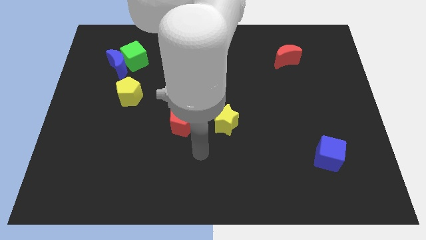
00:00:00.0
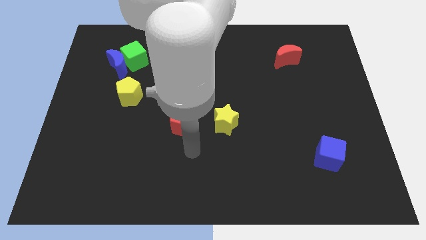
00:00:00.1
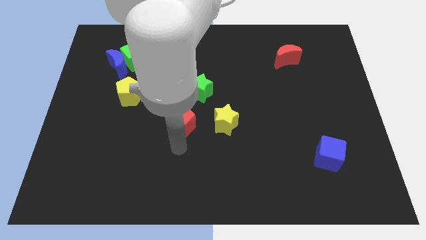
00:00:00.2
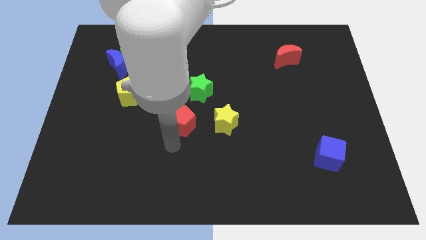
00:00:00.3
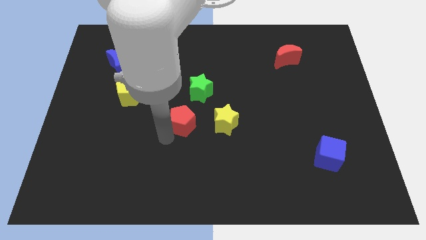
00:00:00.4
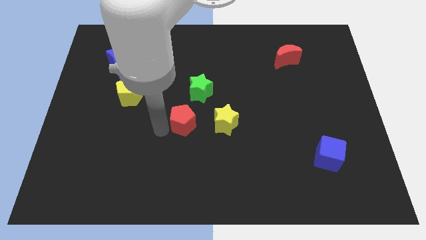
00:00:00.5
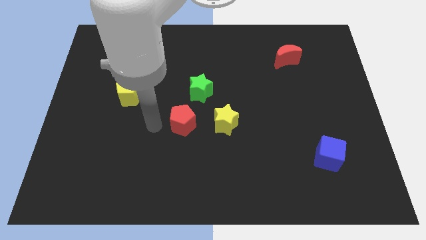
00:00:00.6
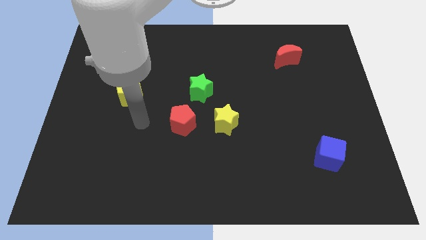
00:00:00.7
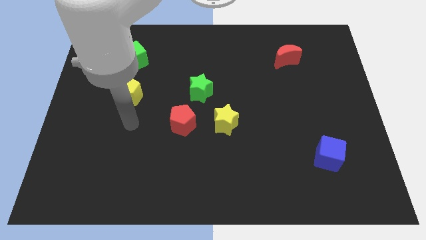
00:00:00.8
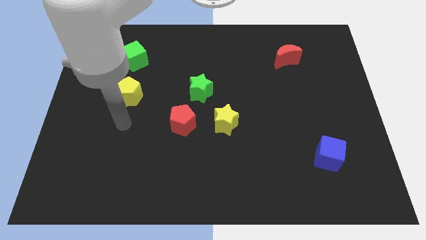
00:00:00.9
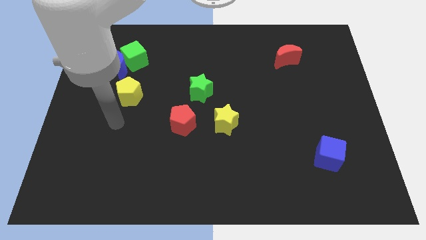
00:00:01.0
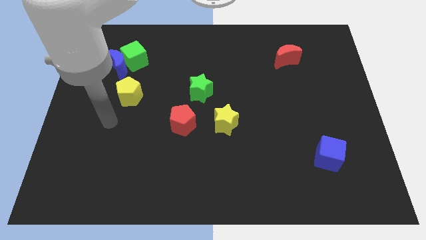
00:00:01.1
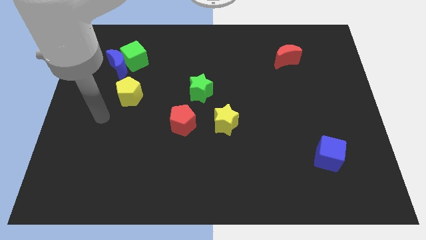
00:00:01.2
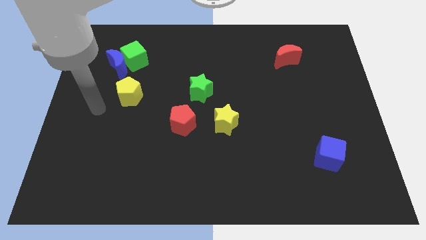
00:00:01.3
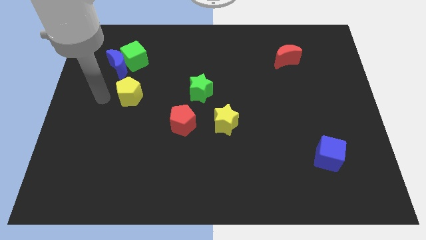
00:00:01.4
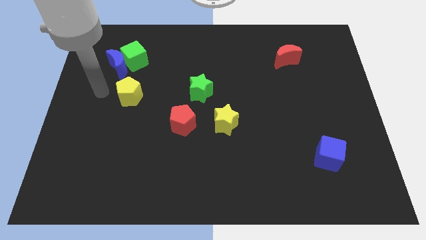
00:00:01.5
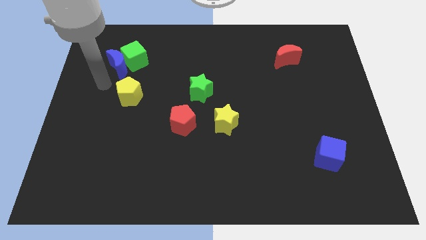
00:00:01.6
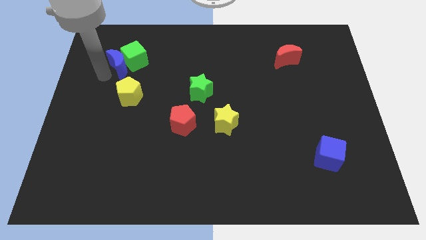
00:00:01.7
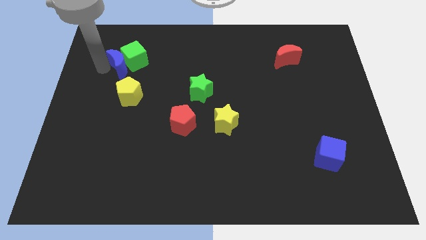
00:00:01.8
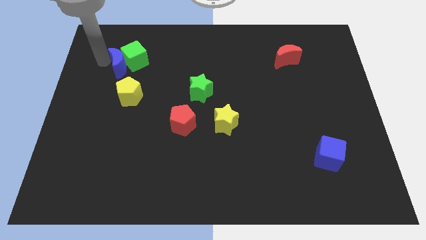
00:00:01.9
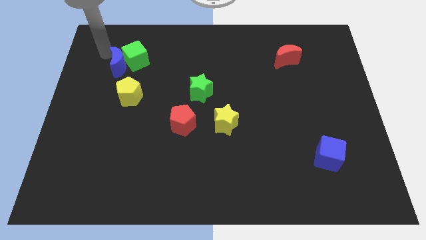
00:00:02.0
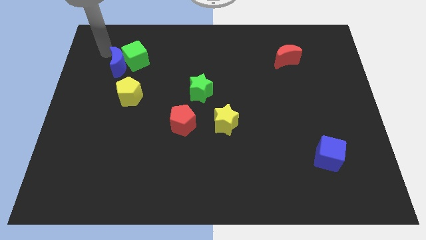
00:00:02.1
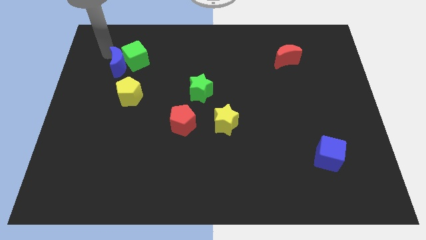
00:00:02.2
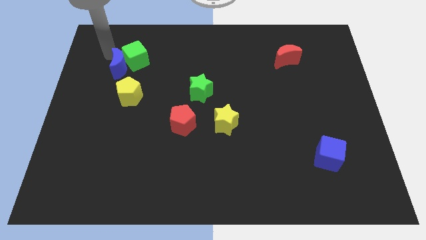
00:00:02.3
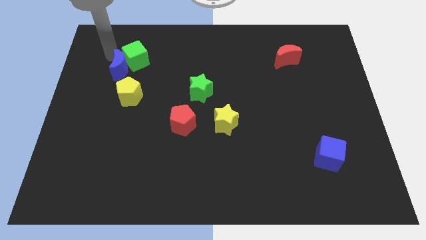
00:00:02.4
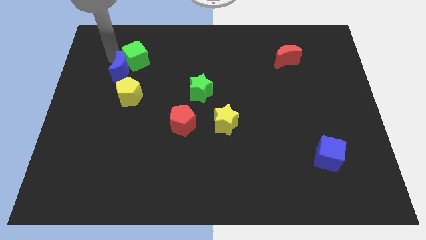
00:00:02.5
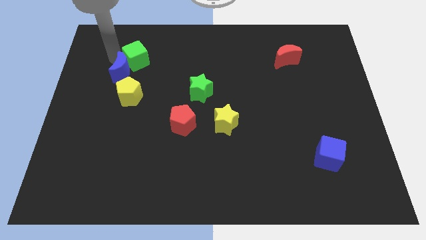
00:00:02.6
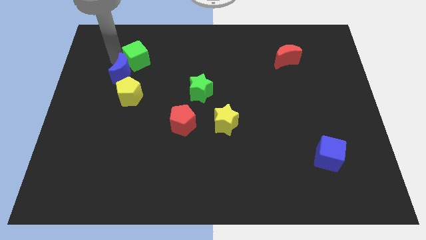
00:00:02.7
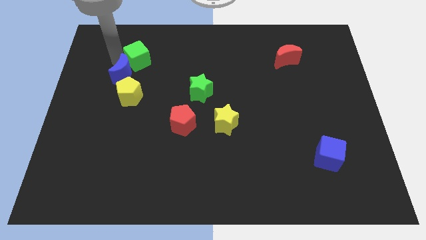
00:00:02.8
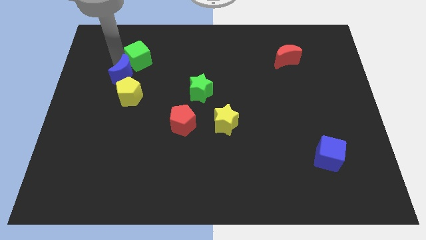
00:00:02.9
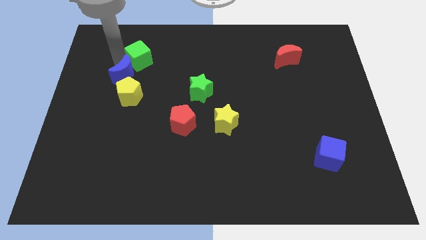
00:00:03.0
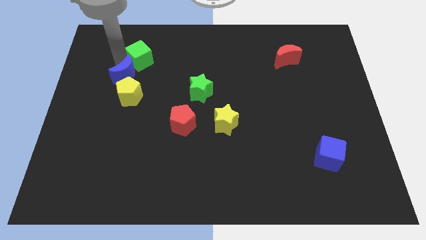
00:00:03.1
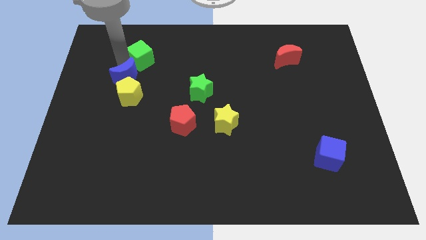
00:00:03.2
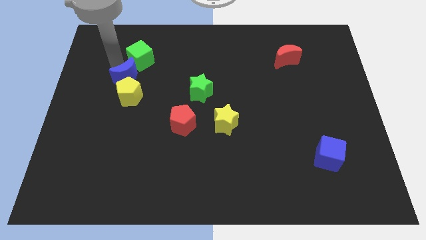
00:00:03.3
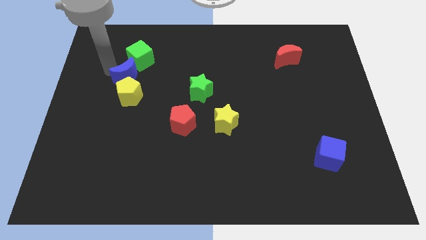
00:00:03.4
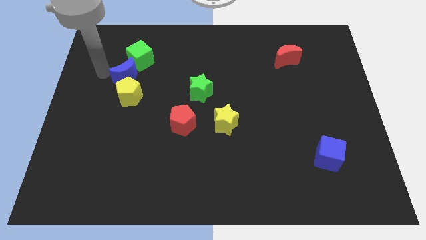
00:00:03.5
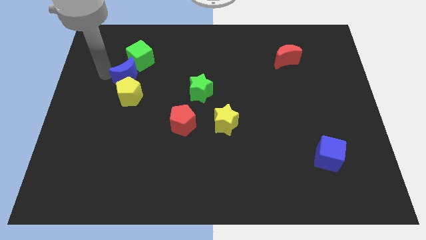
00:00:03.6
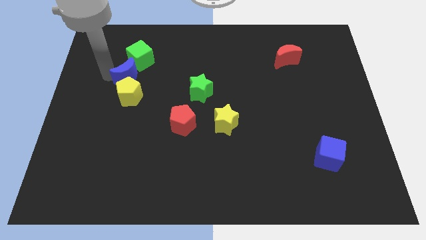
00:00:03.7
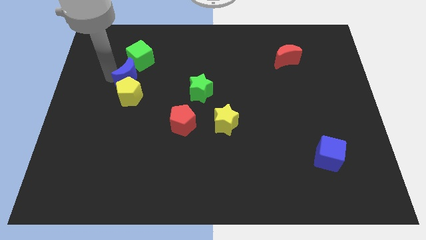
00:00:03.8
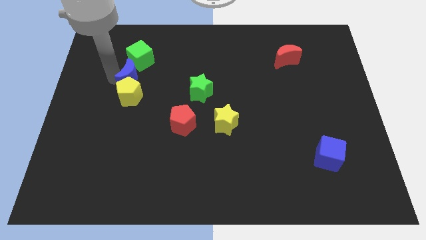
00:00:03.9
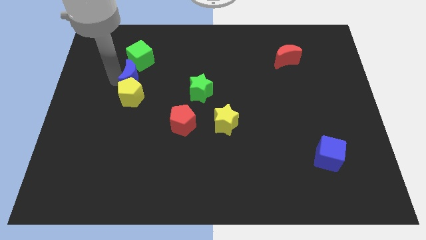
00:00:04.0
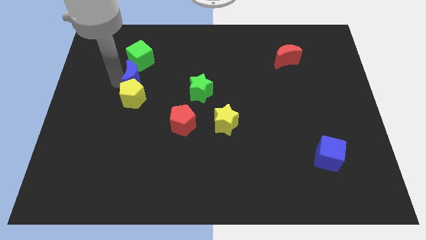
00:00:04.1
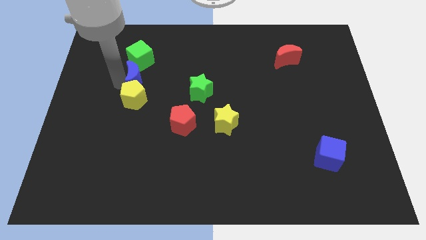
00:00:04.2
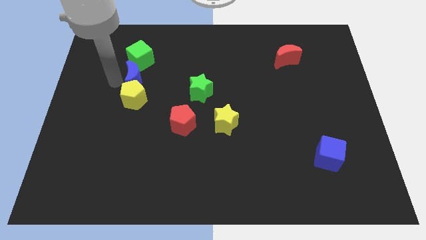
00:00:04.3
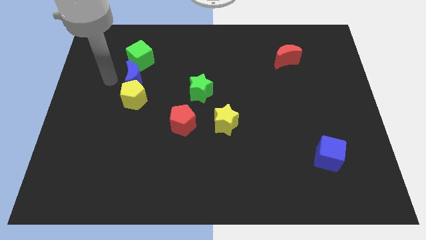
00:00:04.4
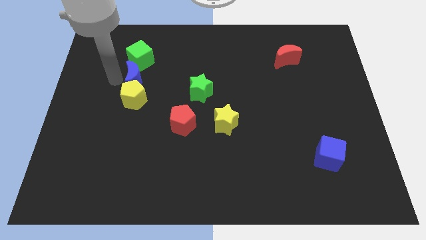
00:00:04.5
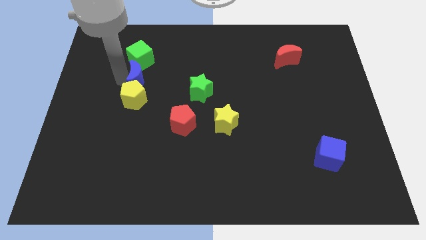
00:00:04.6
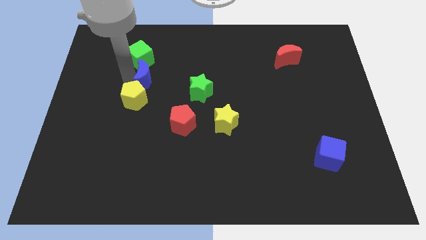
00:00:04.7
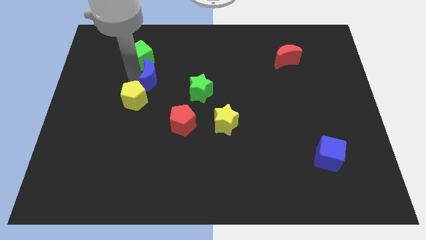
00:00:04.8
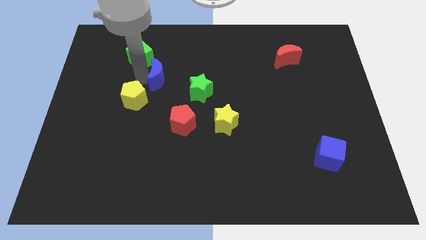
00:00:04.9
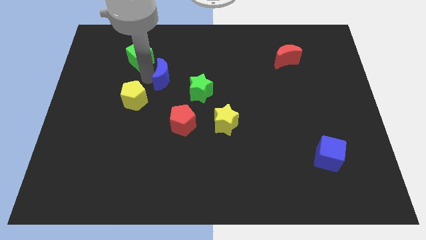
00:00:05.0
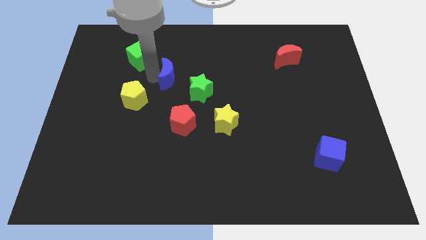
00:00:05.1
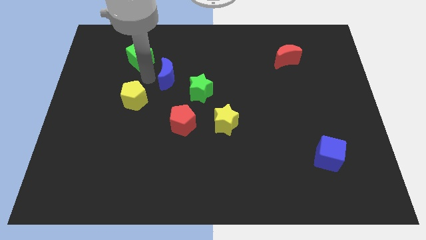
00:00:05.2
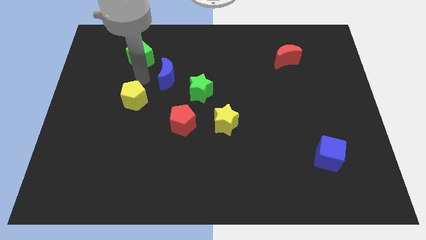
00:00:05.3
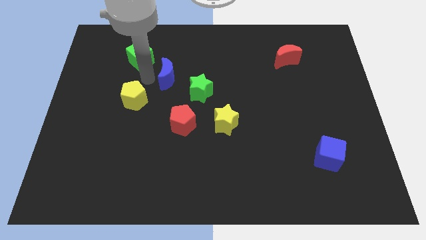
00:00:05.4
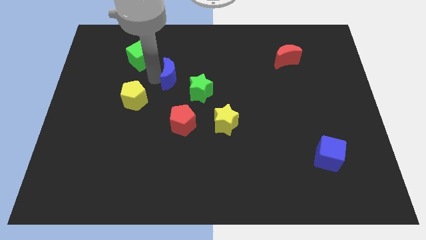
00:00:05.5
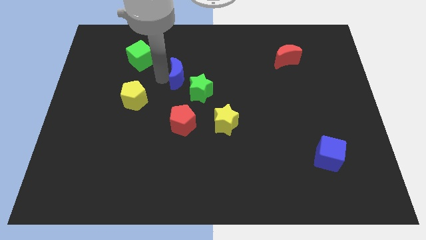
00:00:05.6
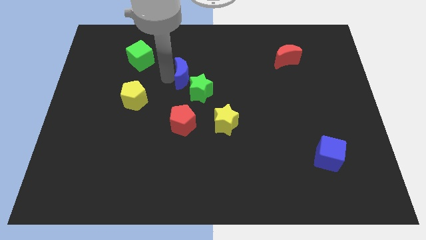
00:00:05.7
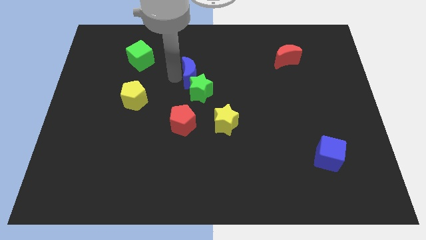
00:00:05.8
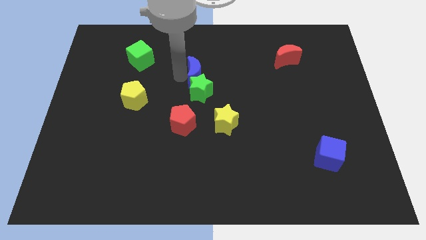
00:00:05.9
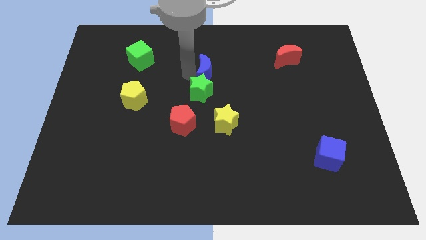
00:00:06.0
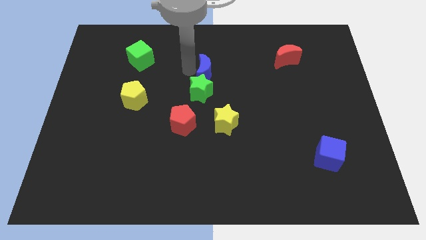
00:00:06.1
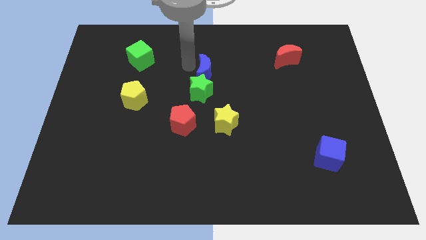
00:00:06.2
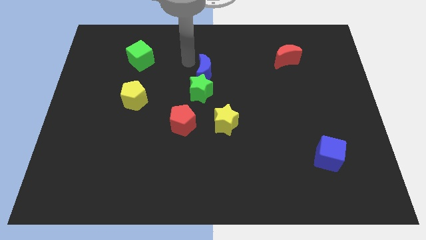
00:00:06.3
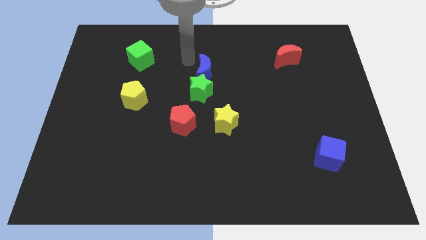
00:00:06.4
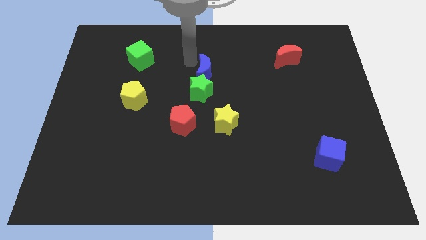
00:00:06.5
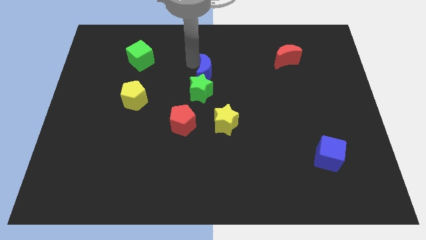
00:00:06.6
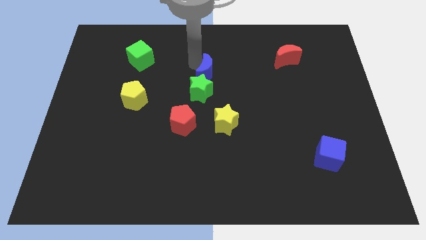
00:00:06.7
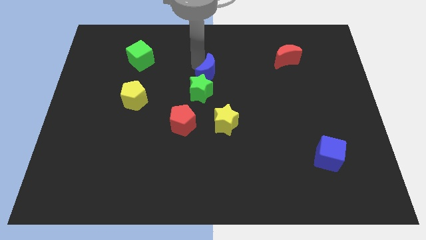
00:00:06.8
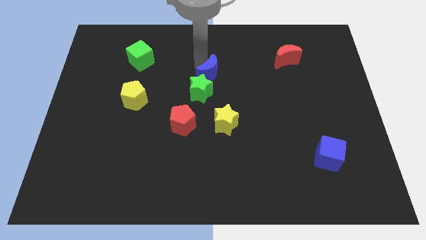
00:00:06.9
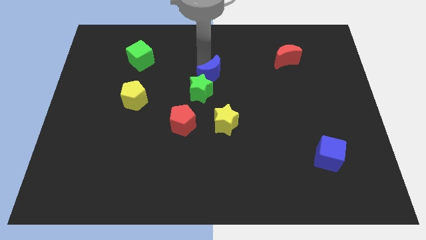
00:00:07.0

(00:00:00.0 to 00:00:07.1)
slide the blue moon above the yellow star

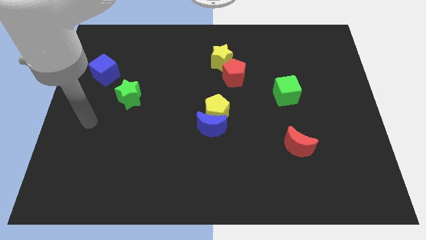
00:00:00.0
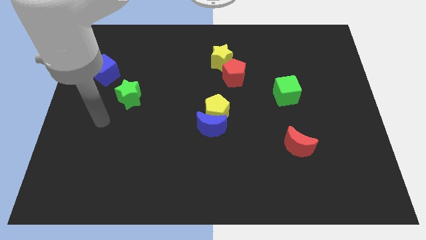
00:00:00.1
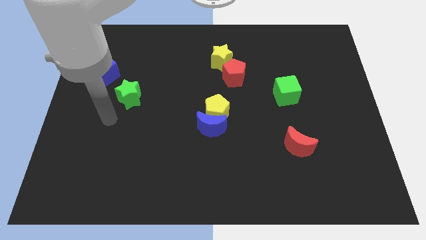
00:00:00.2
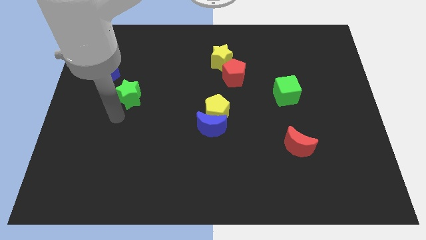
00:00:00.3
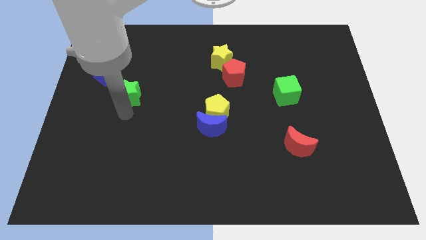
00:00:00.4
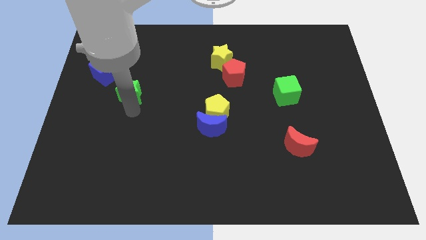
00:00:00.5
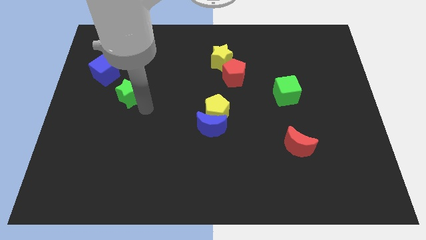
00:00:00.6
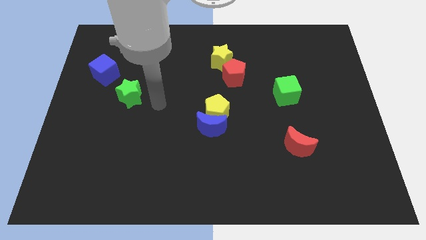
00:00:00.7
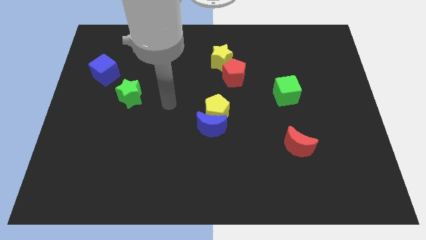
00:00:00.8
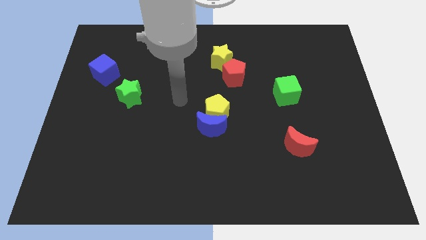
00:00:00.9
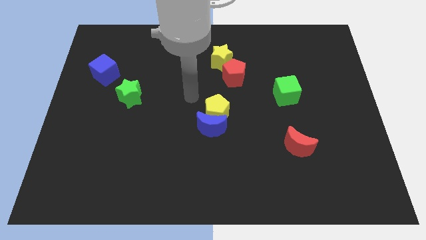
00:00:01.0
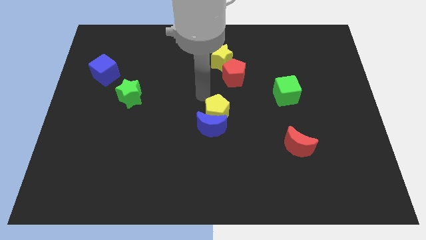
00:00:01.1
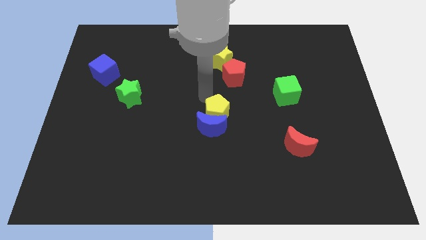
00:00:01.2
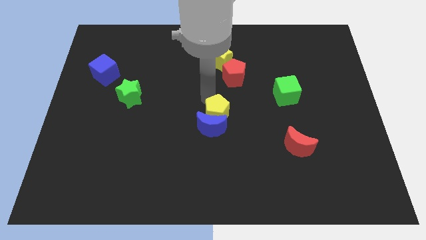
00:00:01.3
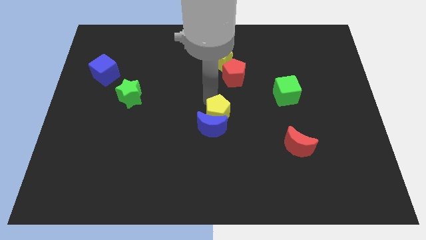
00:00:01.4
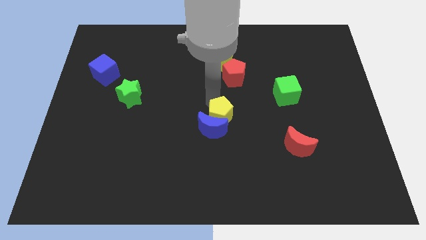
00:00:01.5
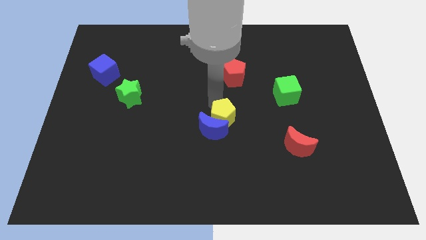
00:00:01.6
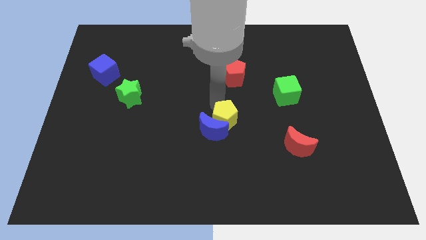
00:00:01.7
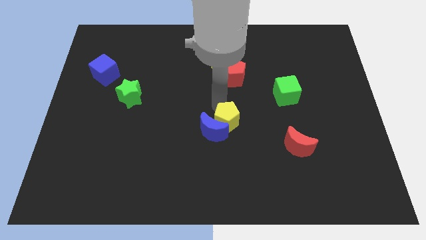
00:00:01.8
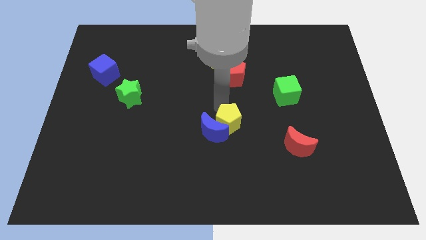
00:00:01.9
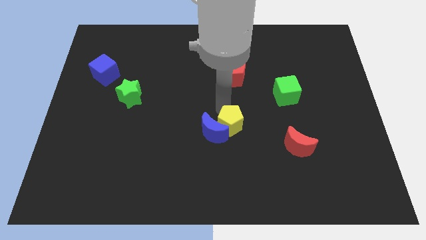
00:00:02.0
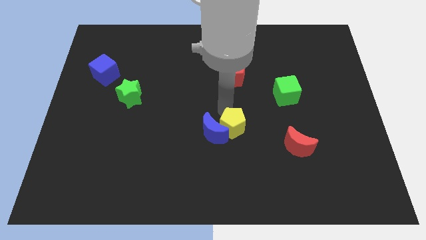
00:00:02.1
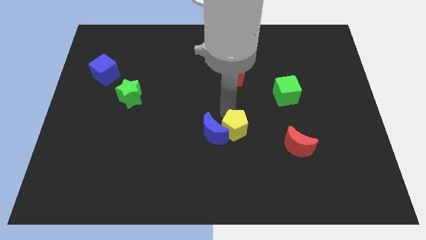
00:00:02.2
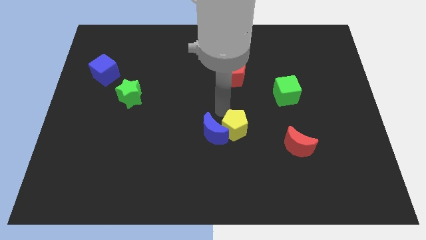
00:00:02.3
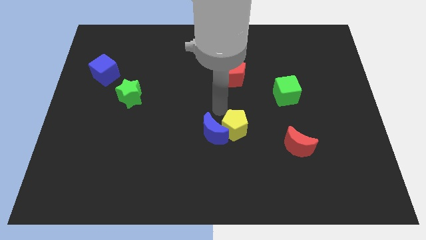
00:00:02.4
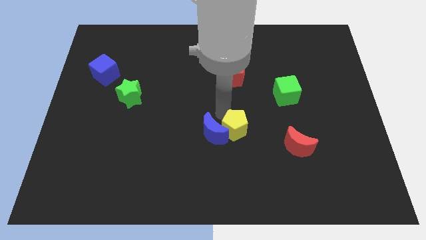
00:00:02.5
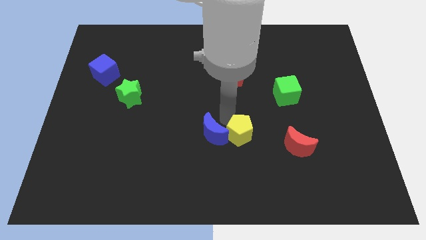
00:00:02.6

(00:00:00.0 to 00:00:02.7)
move the yellow pentagon to the left of the red moon
